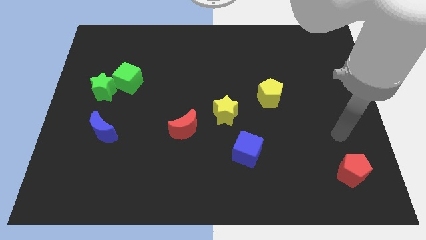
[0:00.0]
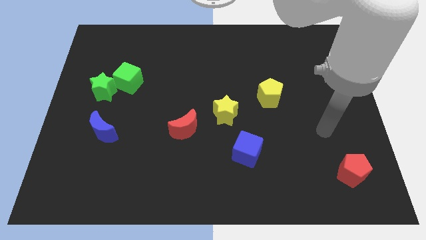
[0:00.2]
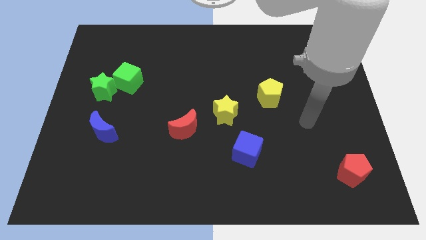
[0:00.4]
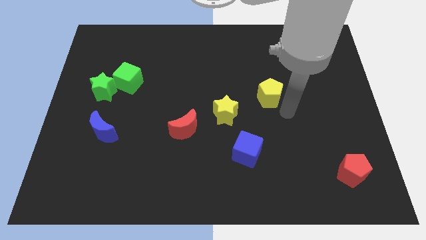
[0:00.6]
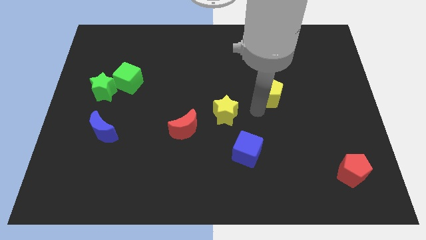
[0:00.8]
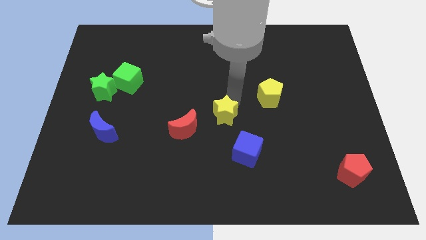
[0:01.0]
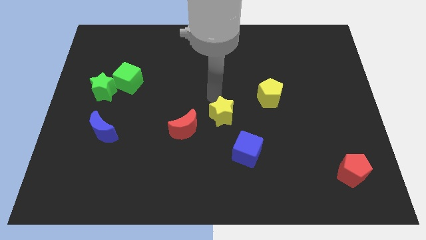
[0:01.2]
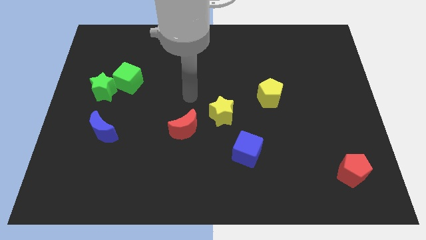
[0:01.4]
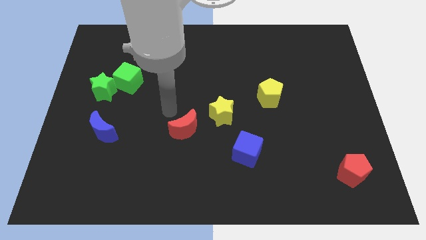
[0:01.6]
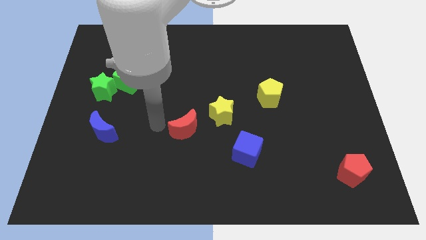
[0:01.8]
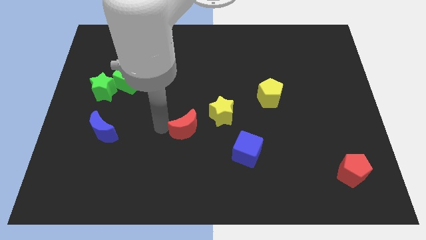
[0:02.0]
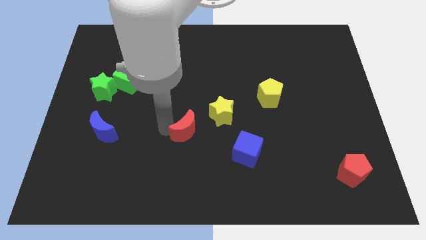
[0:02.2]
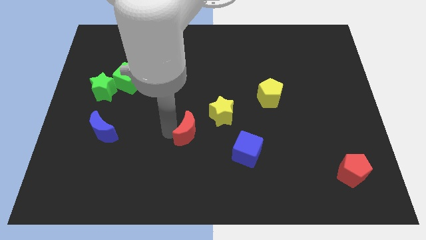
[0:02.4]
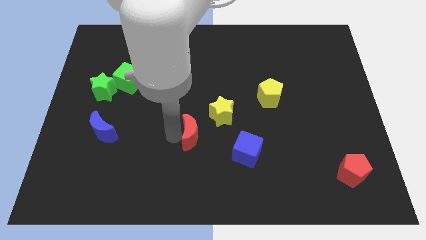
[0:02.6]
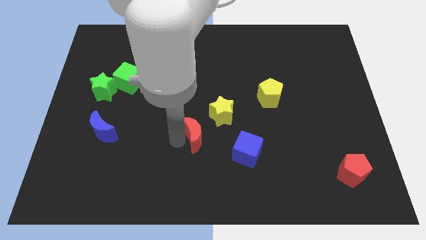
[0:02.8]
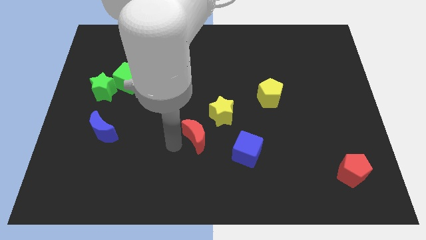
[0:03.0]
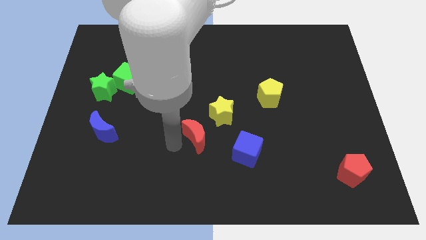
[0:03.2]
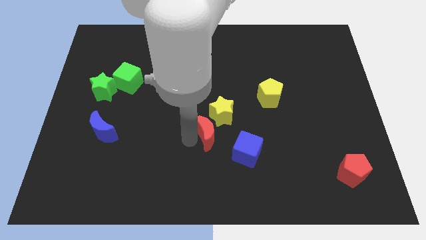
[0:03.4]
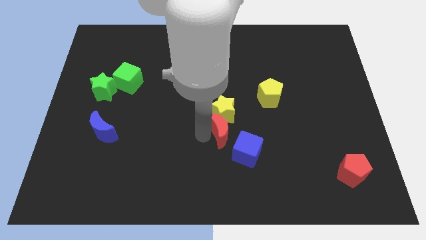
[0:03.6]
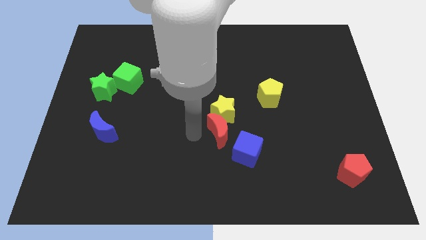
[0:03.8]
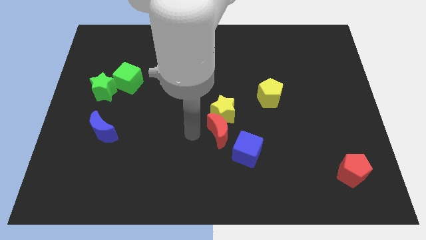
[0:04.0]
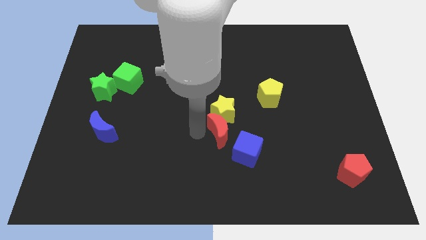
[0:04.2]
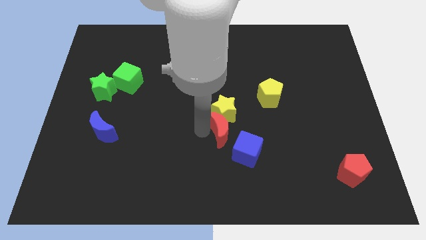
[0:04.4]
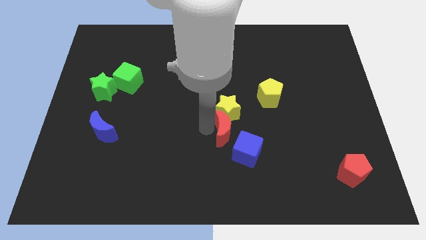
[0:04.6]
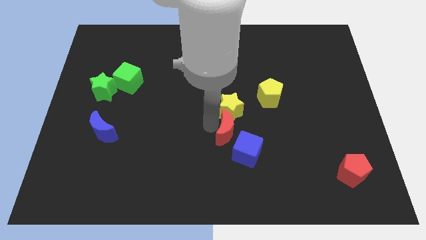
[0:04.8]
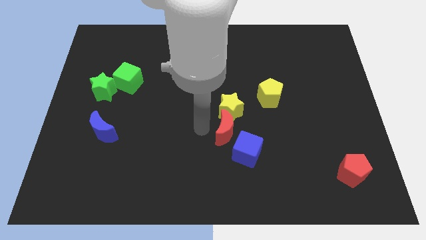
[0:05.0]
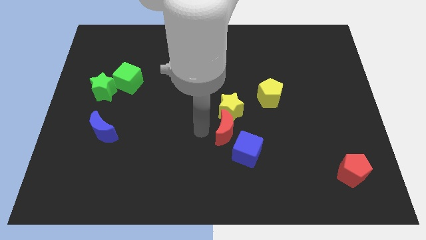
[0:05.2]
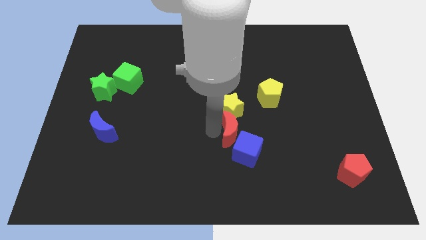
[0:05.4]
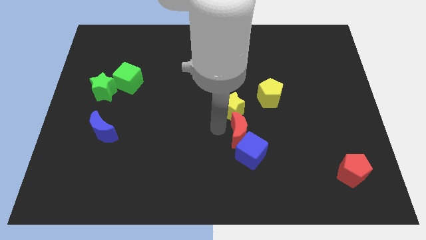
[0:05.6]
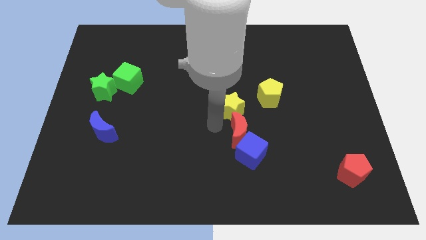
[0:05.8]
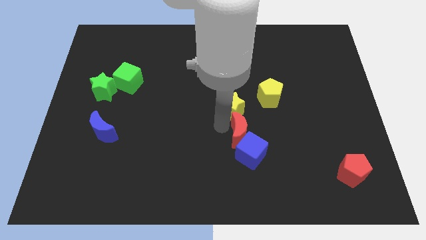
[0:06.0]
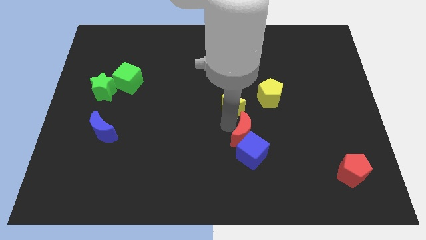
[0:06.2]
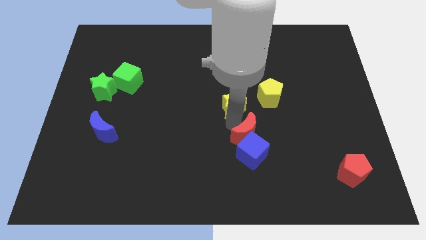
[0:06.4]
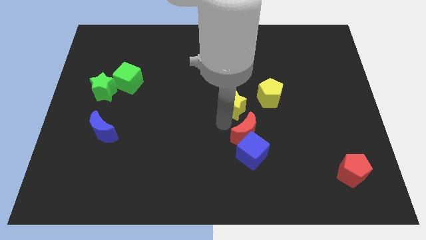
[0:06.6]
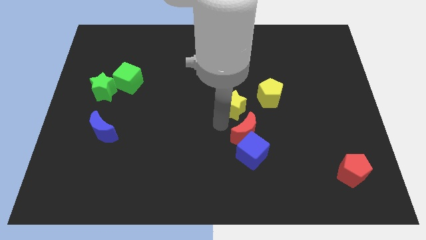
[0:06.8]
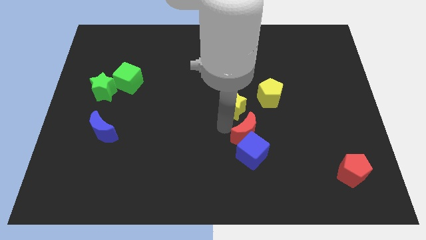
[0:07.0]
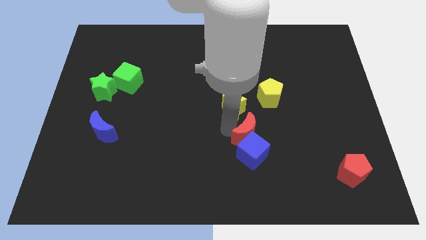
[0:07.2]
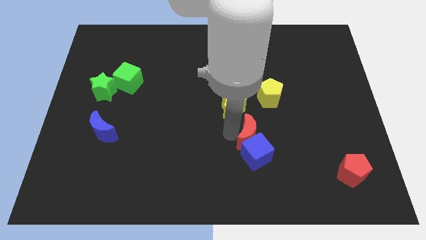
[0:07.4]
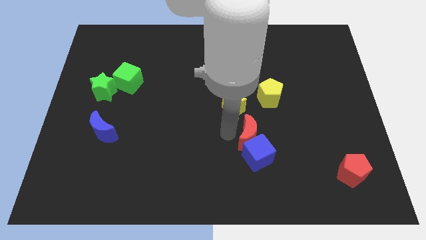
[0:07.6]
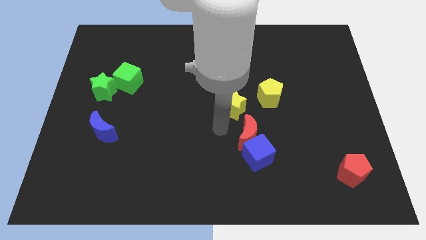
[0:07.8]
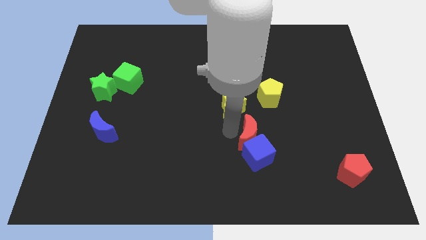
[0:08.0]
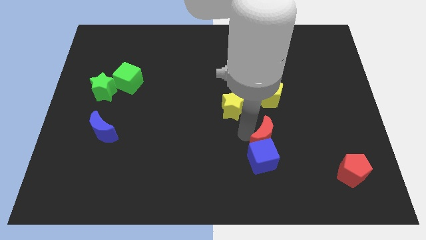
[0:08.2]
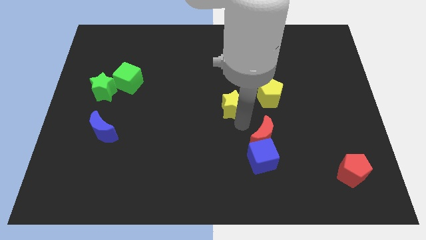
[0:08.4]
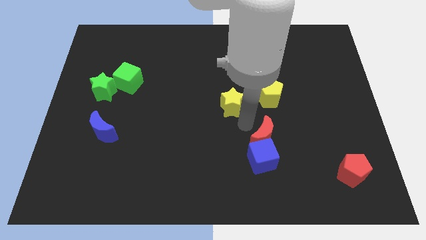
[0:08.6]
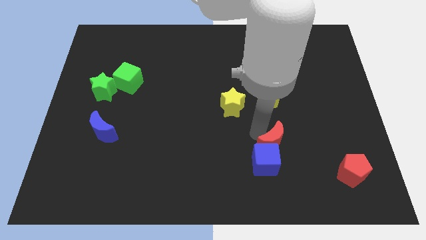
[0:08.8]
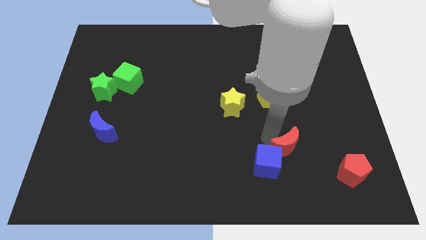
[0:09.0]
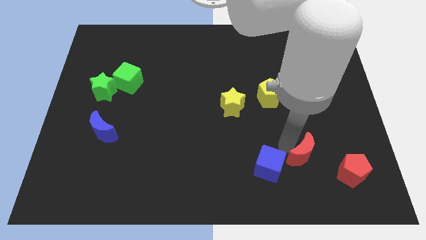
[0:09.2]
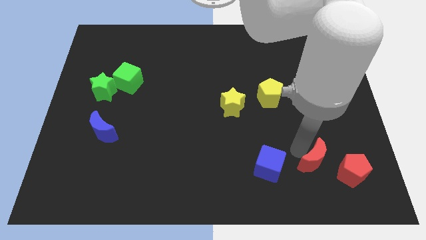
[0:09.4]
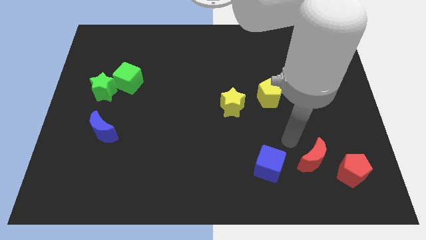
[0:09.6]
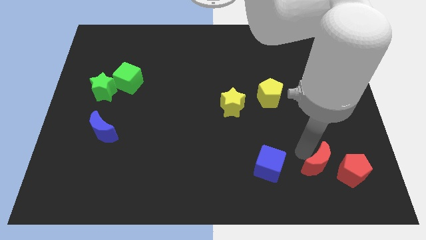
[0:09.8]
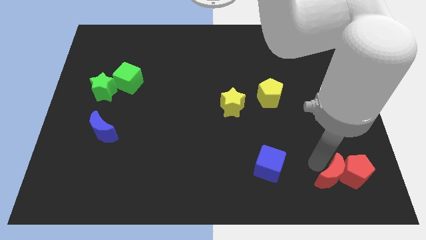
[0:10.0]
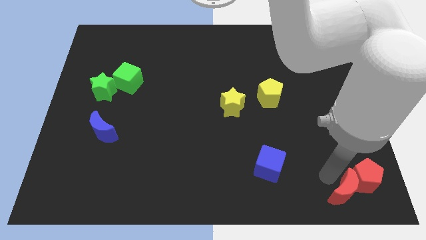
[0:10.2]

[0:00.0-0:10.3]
put the red moon to the bottom right

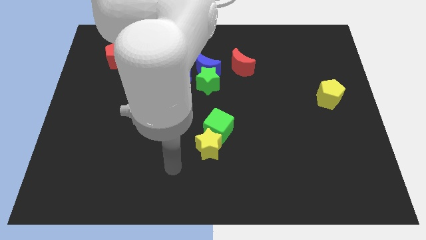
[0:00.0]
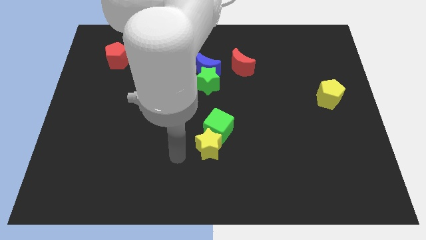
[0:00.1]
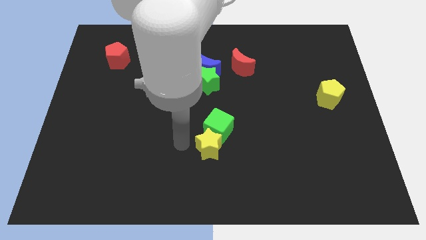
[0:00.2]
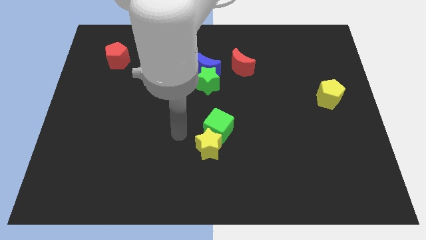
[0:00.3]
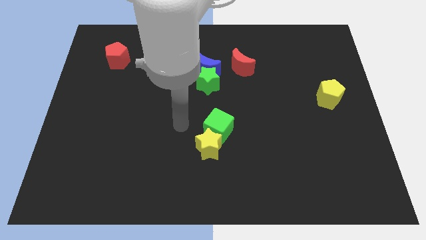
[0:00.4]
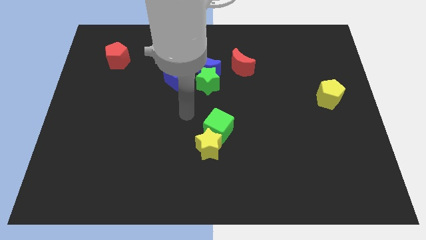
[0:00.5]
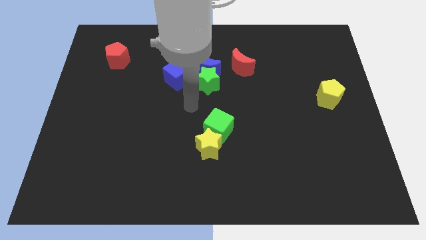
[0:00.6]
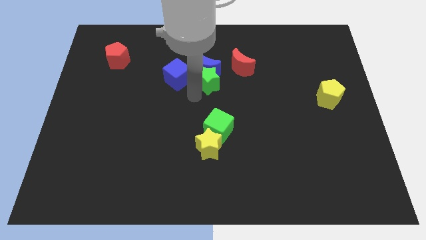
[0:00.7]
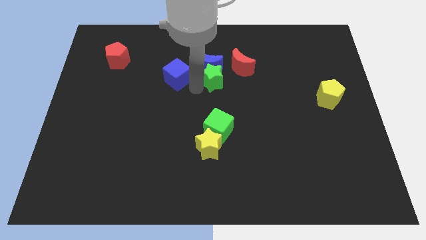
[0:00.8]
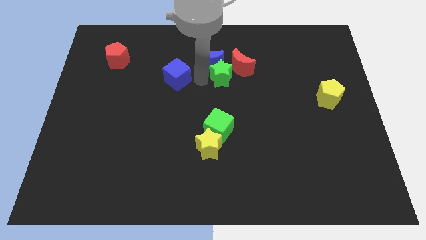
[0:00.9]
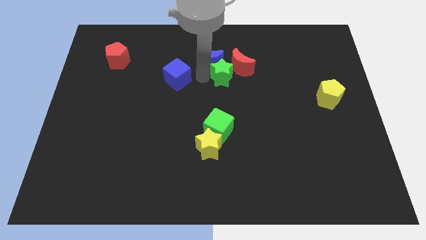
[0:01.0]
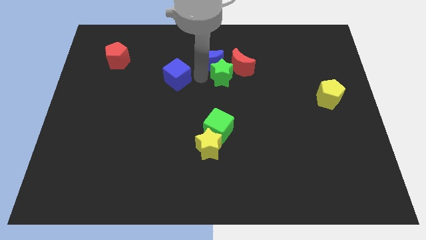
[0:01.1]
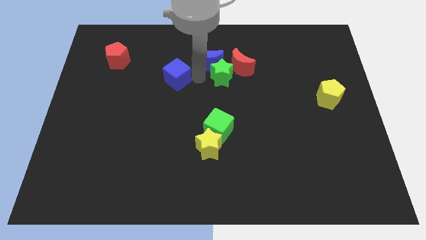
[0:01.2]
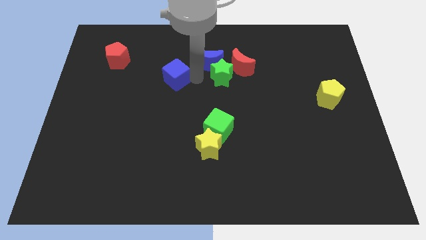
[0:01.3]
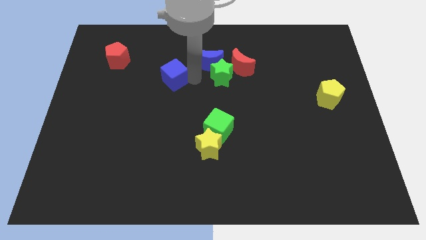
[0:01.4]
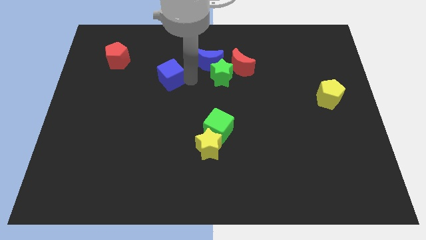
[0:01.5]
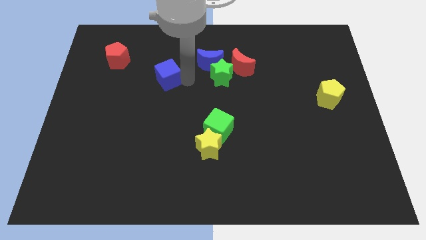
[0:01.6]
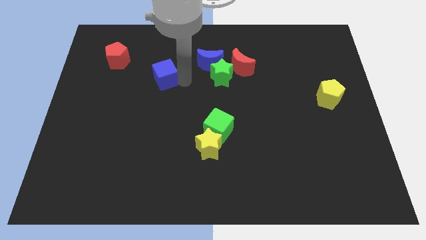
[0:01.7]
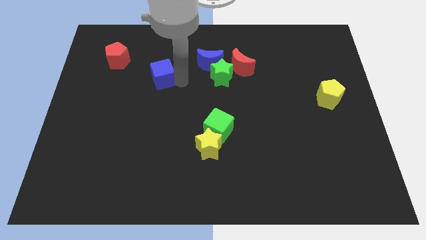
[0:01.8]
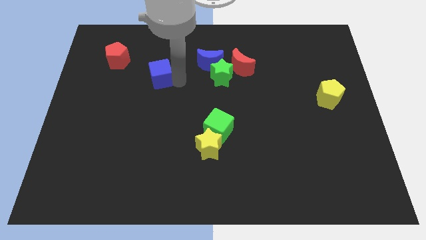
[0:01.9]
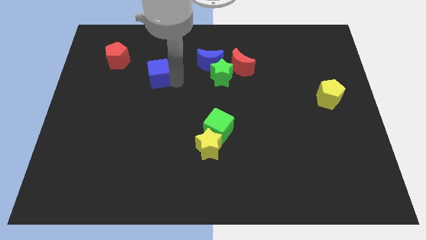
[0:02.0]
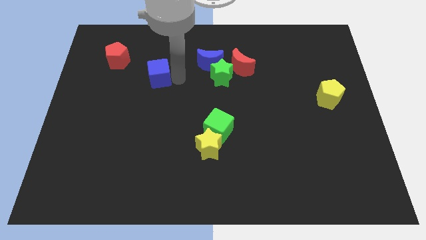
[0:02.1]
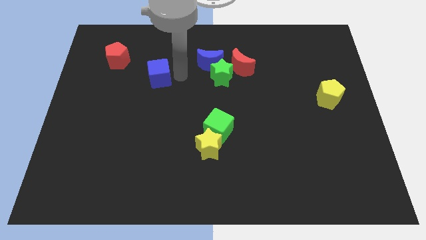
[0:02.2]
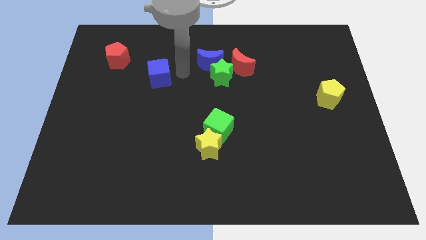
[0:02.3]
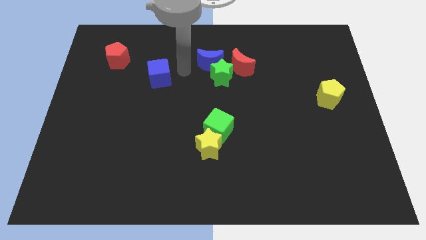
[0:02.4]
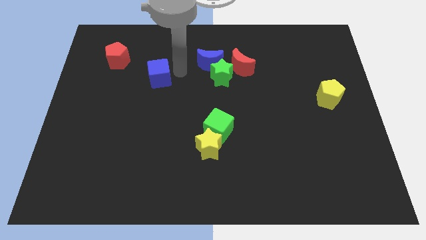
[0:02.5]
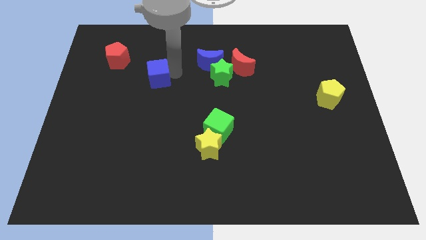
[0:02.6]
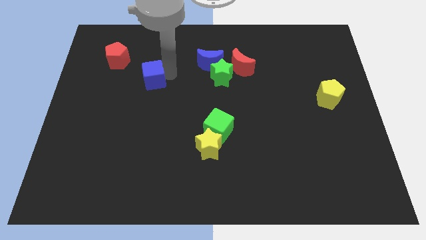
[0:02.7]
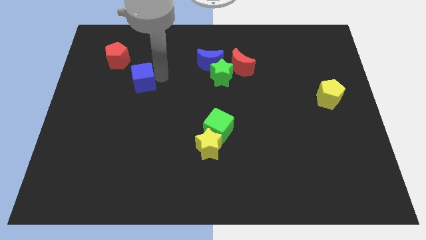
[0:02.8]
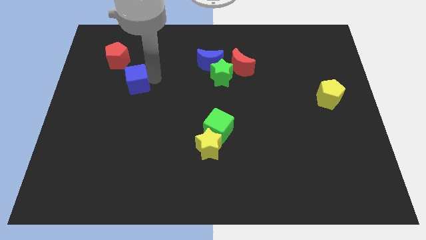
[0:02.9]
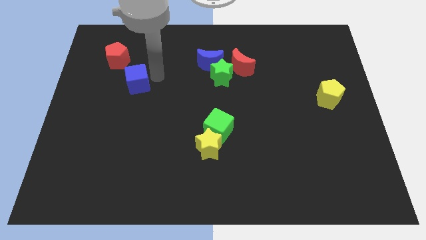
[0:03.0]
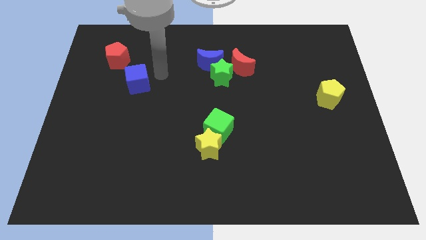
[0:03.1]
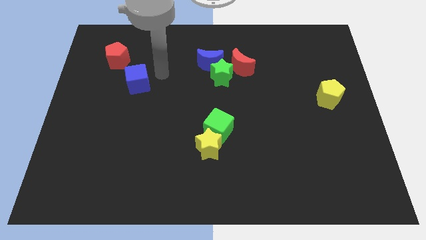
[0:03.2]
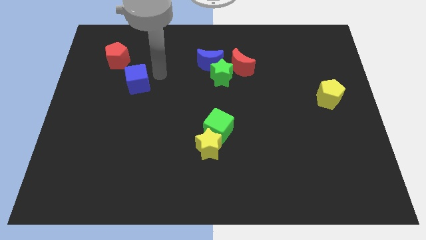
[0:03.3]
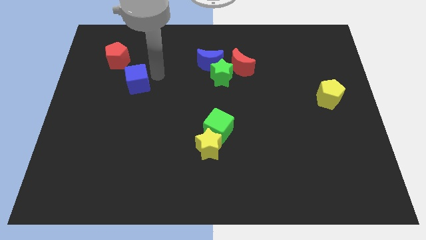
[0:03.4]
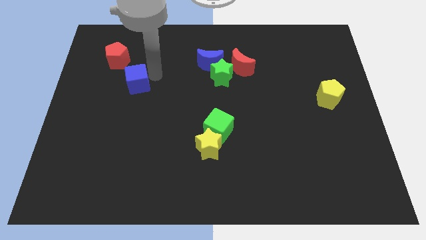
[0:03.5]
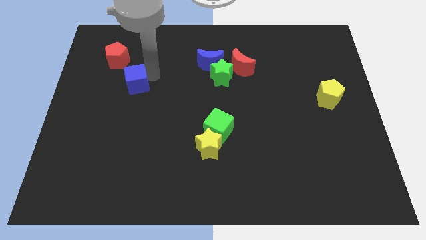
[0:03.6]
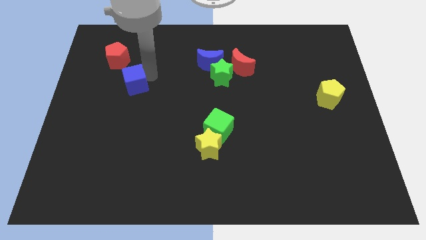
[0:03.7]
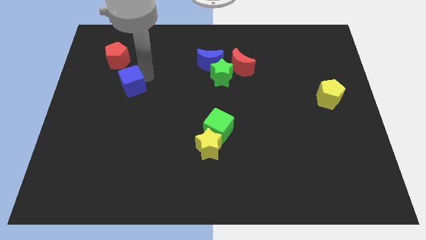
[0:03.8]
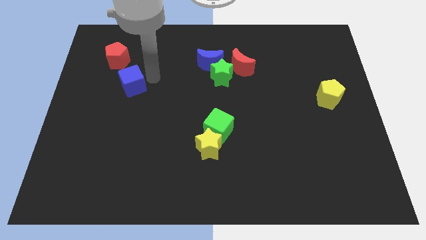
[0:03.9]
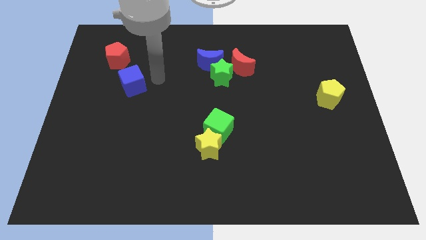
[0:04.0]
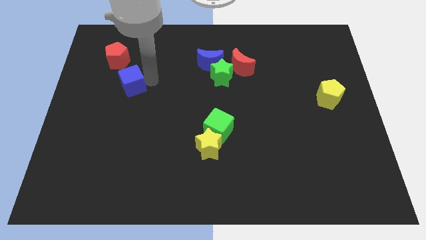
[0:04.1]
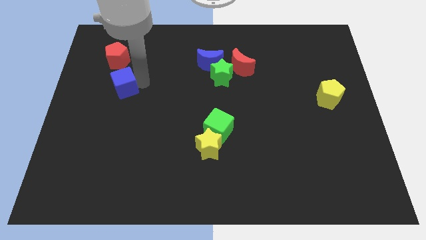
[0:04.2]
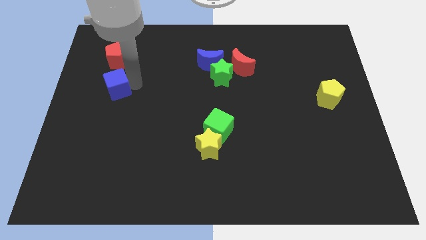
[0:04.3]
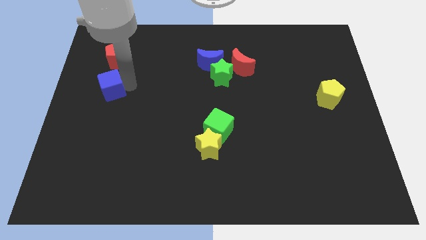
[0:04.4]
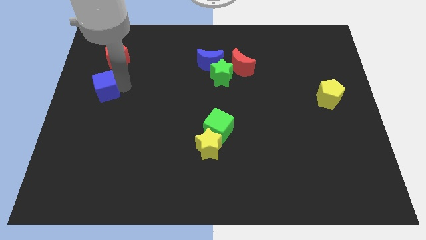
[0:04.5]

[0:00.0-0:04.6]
put the blue cube to the left side of the board
